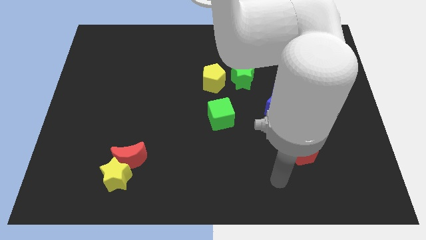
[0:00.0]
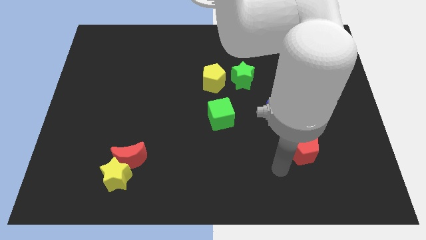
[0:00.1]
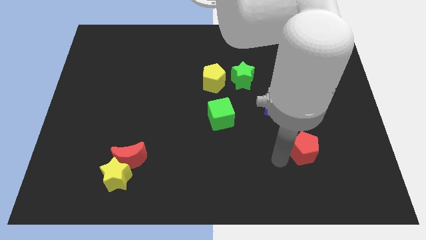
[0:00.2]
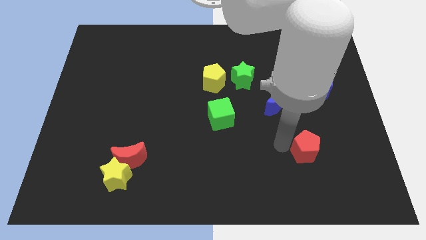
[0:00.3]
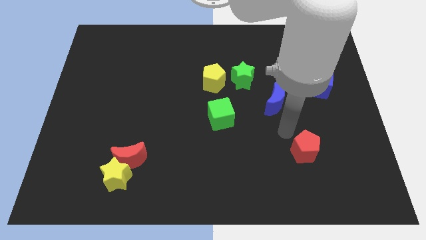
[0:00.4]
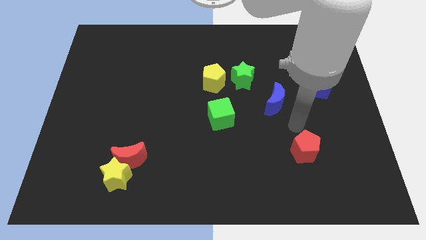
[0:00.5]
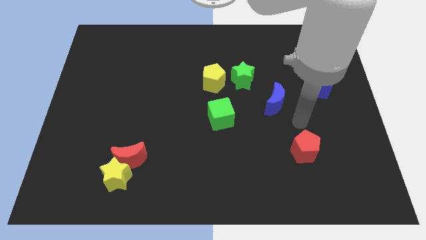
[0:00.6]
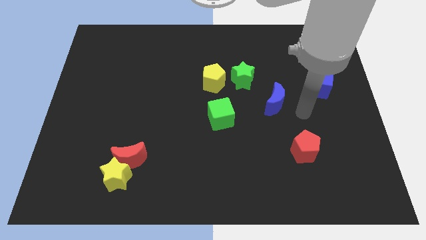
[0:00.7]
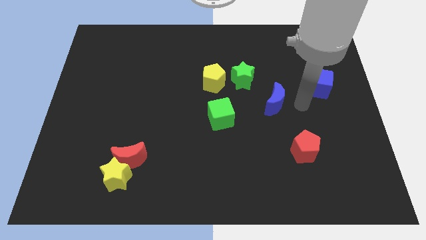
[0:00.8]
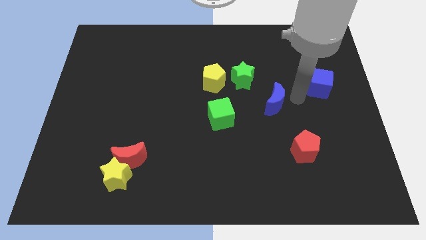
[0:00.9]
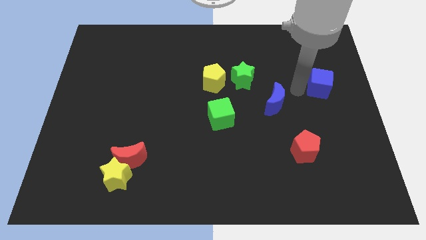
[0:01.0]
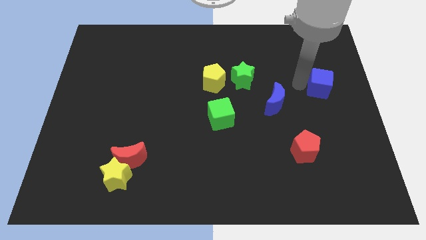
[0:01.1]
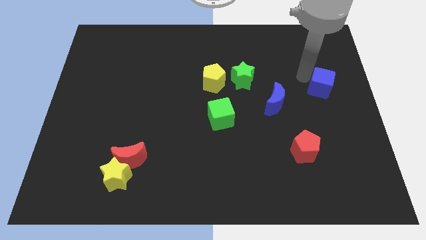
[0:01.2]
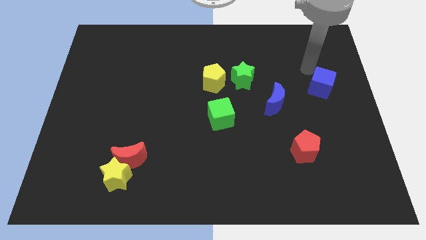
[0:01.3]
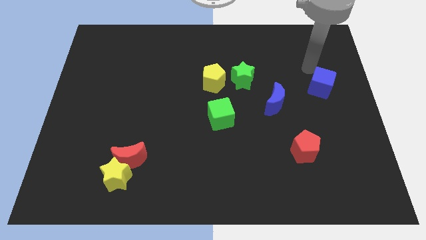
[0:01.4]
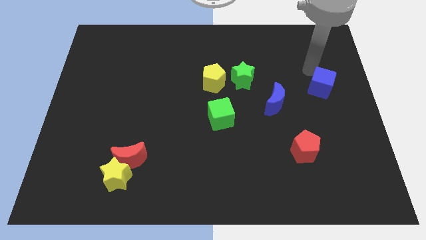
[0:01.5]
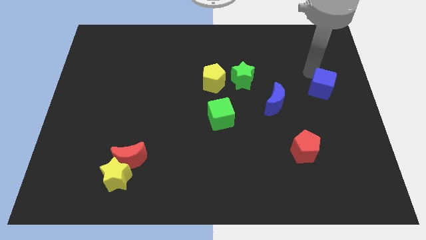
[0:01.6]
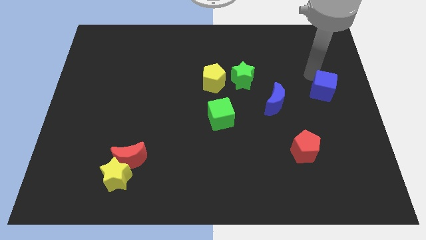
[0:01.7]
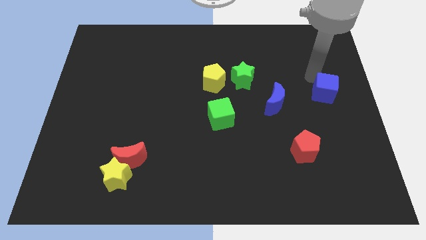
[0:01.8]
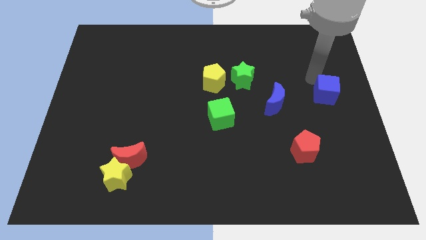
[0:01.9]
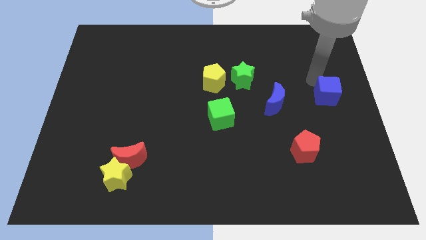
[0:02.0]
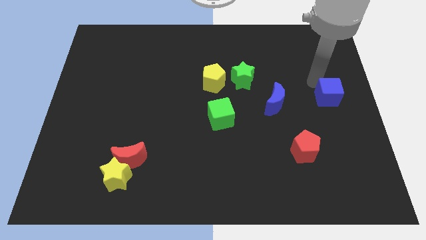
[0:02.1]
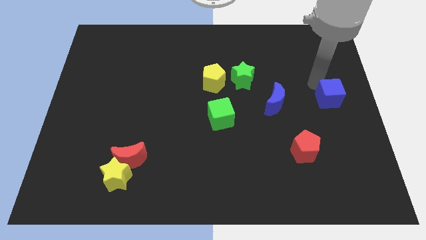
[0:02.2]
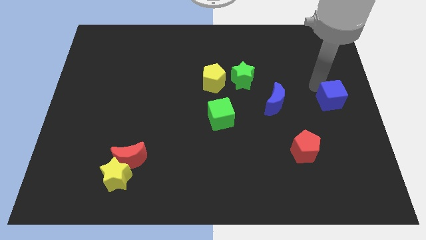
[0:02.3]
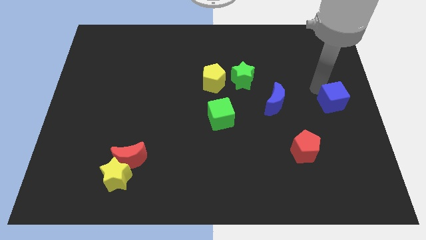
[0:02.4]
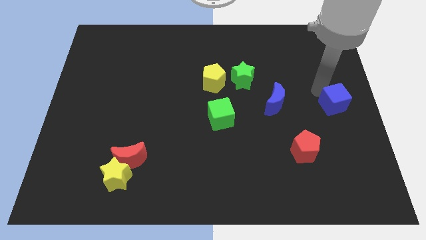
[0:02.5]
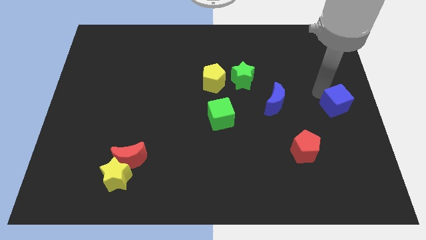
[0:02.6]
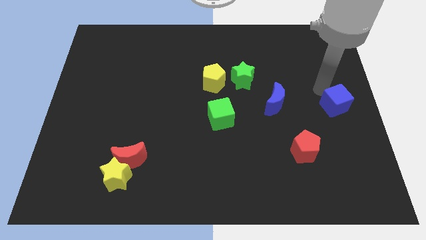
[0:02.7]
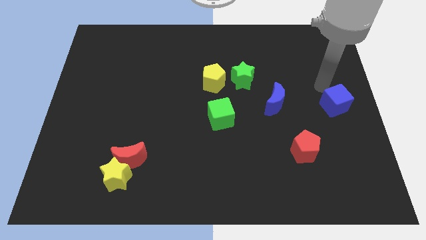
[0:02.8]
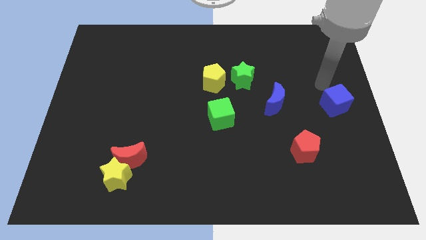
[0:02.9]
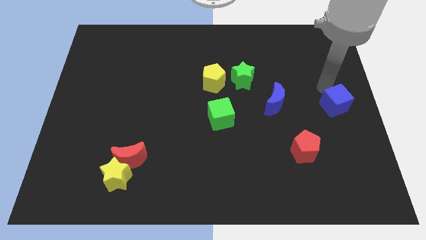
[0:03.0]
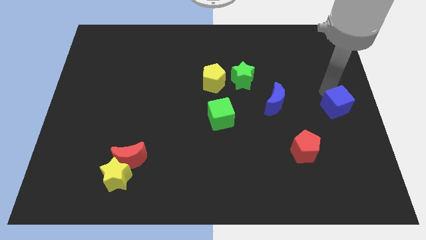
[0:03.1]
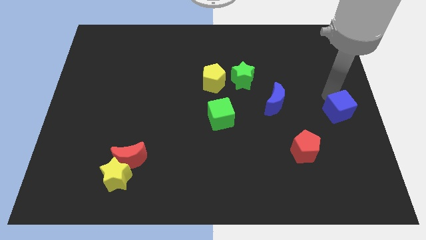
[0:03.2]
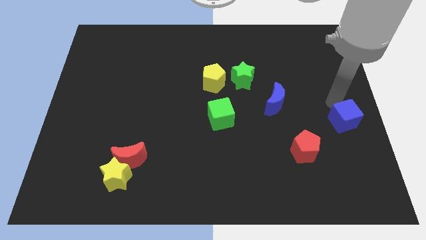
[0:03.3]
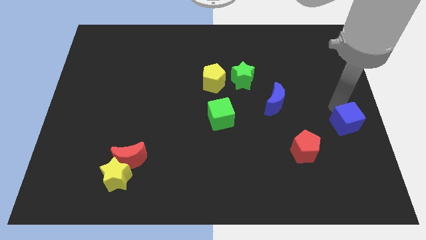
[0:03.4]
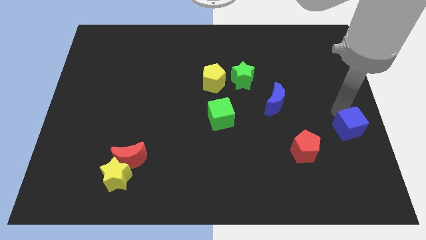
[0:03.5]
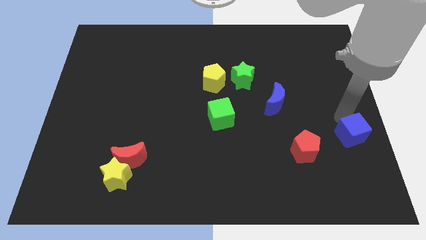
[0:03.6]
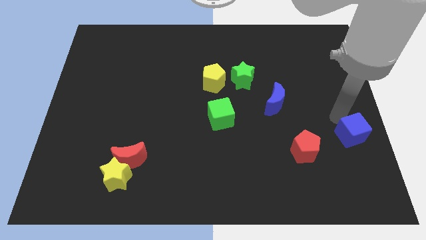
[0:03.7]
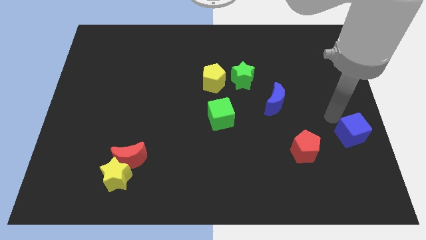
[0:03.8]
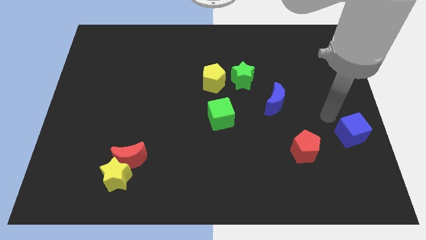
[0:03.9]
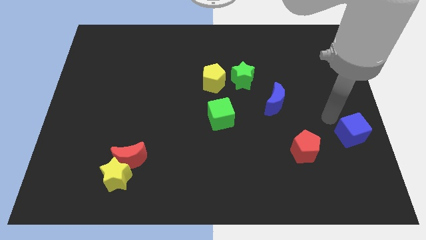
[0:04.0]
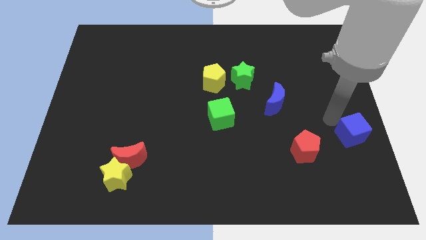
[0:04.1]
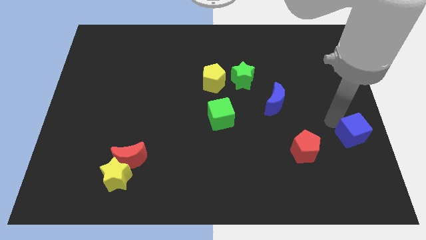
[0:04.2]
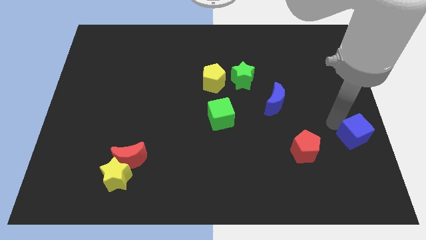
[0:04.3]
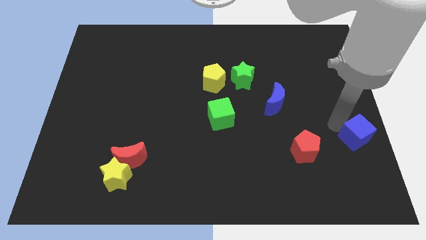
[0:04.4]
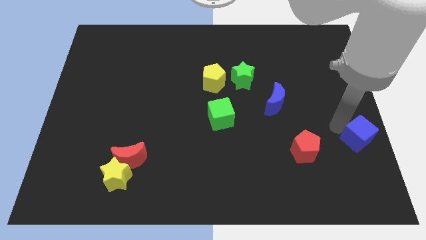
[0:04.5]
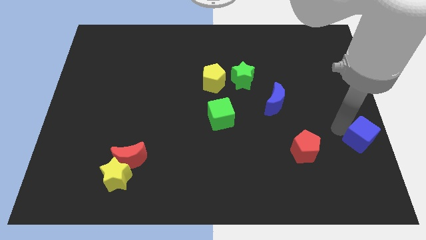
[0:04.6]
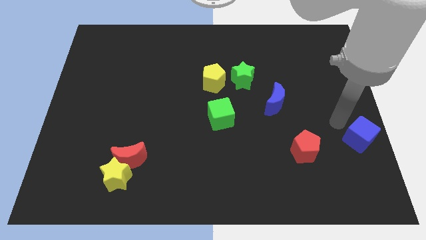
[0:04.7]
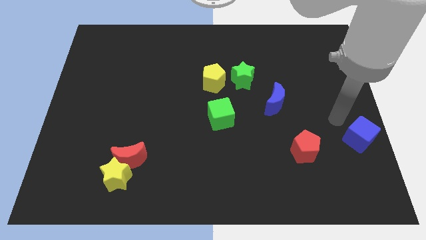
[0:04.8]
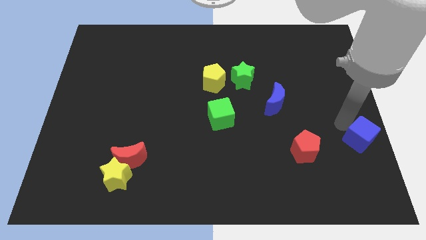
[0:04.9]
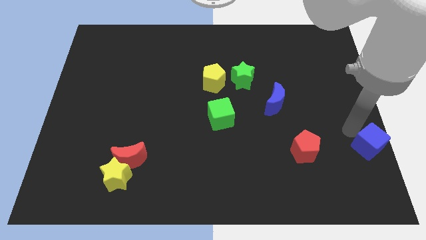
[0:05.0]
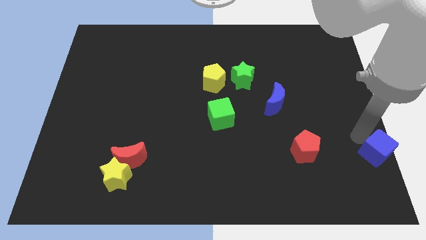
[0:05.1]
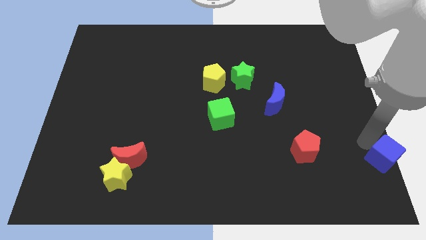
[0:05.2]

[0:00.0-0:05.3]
push the blue cube to the lower right corner

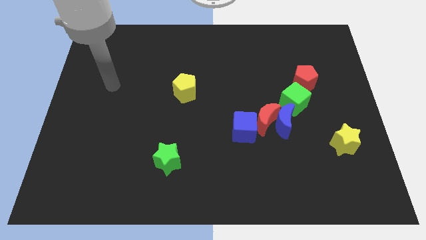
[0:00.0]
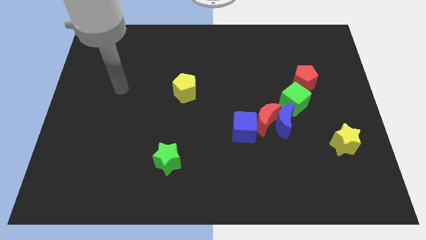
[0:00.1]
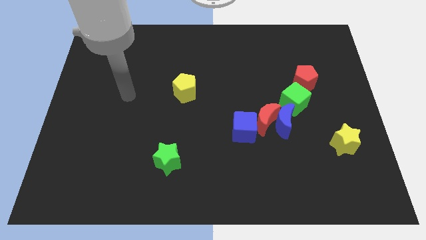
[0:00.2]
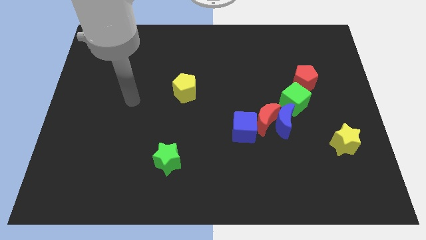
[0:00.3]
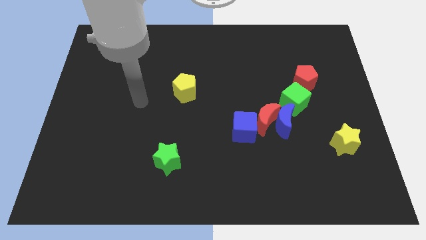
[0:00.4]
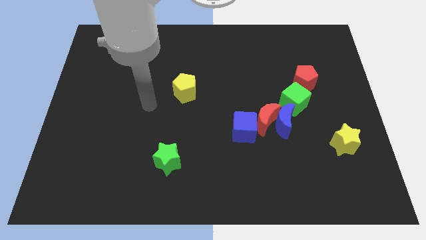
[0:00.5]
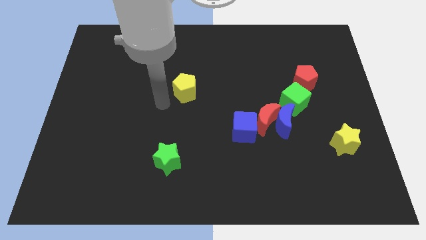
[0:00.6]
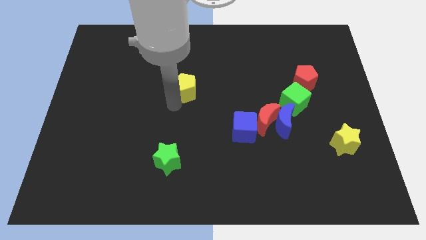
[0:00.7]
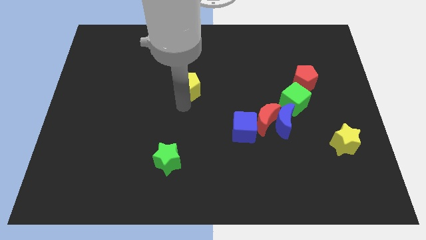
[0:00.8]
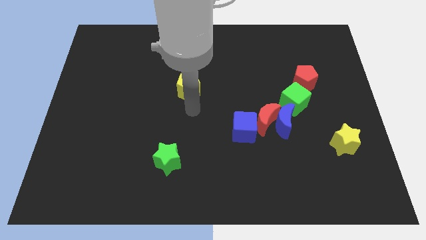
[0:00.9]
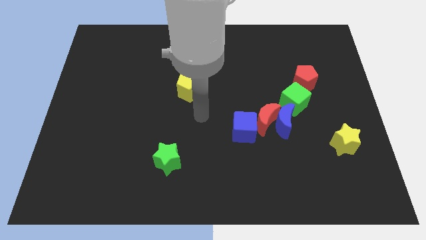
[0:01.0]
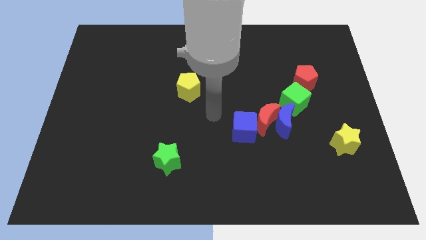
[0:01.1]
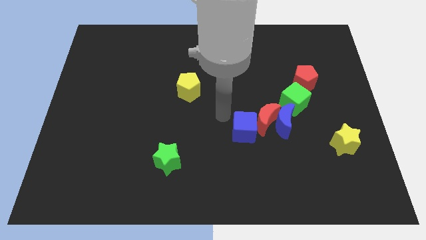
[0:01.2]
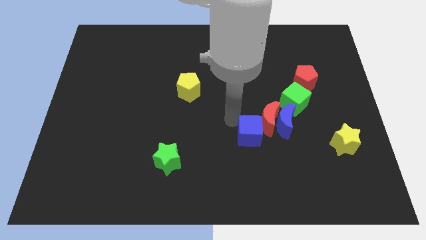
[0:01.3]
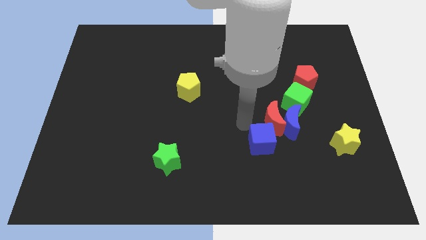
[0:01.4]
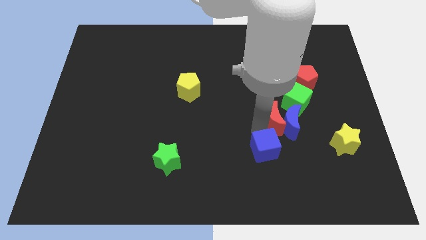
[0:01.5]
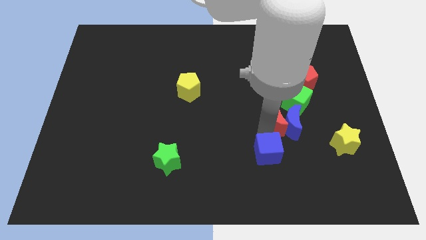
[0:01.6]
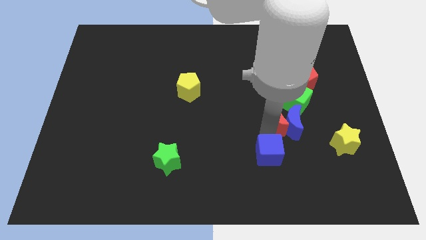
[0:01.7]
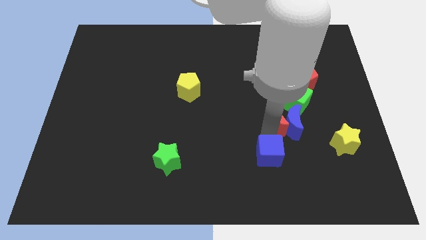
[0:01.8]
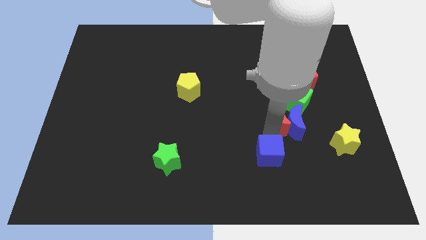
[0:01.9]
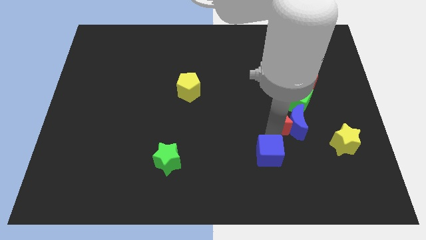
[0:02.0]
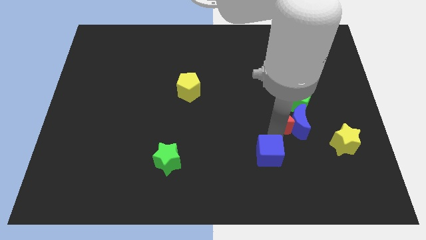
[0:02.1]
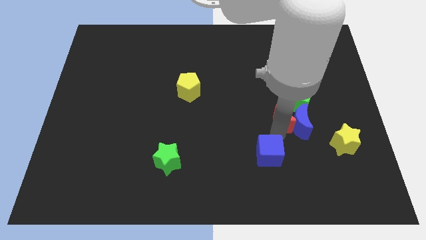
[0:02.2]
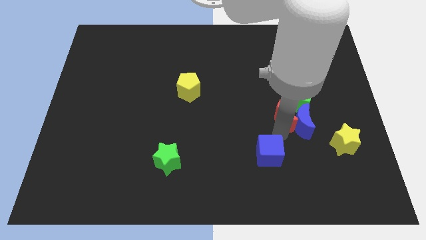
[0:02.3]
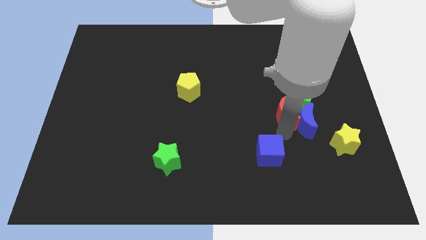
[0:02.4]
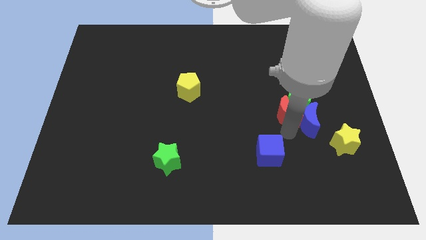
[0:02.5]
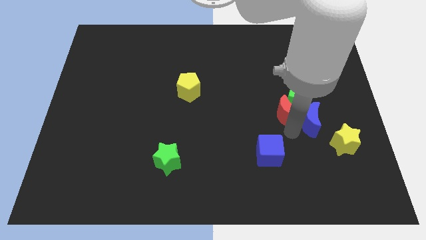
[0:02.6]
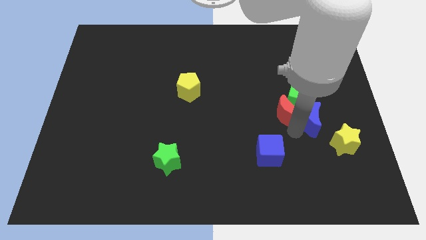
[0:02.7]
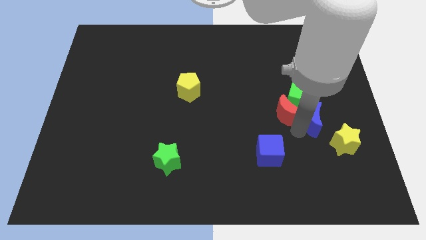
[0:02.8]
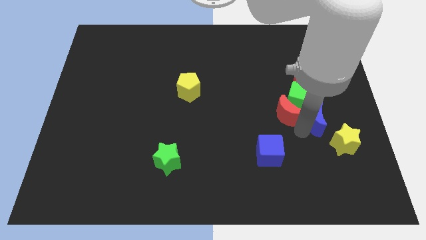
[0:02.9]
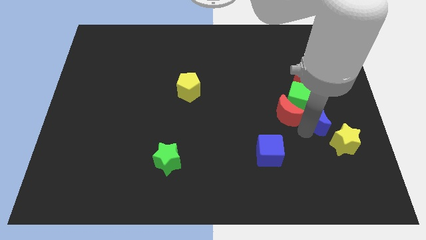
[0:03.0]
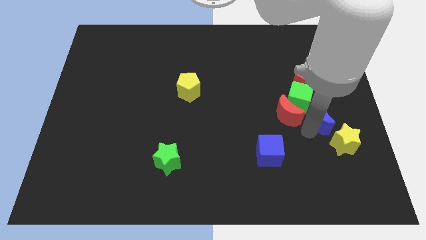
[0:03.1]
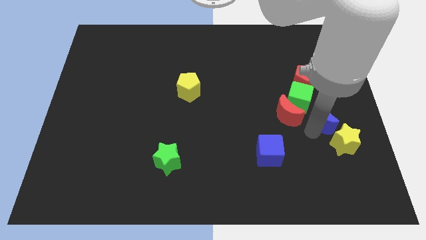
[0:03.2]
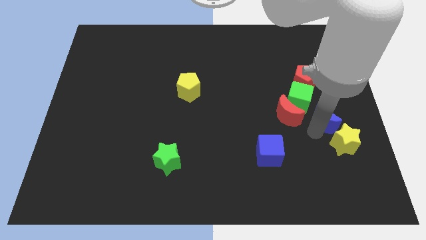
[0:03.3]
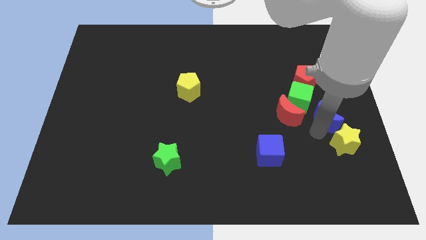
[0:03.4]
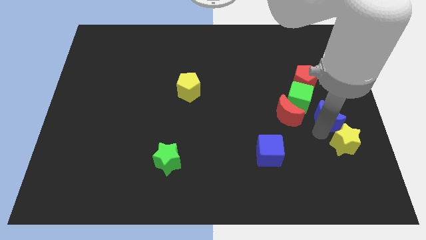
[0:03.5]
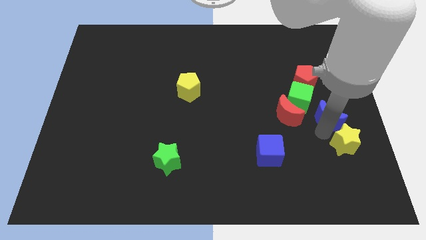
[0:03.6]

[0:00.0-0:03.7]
put the blue moon to the right side of the board
